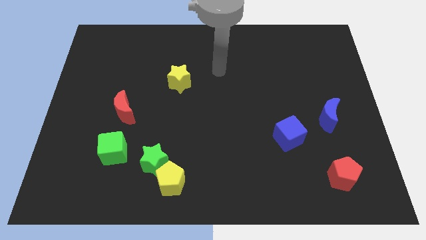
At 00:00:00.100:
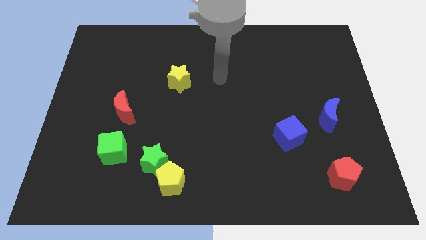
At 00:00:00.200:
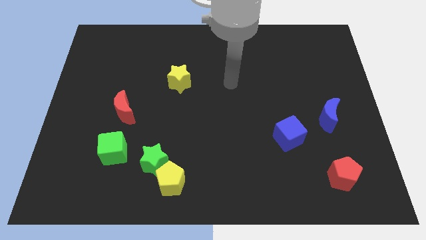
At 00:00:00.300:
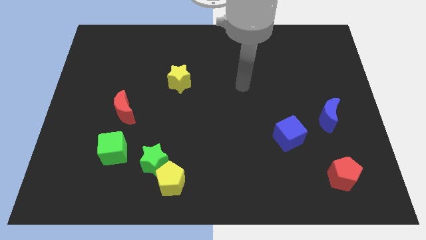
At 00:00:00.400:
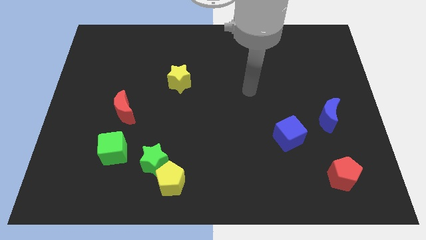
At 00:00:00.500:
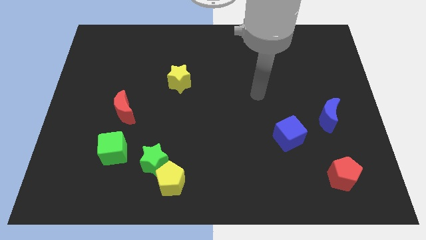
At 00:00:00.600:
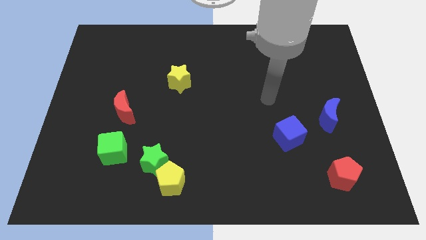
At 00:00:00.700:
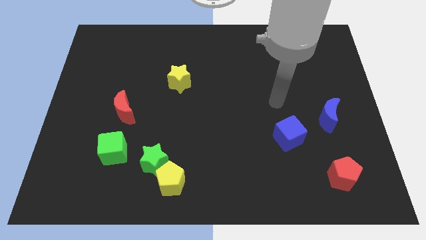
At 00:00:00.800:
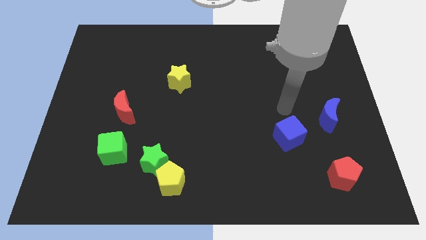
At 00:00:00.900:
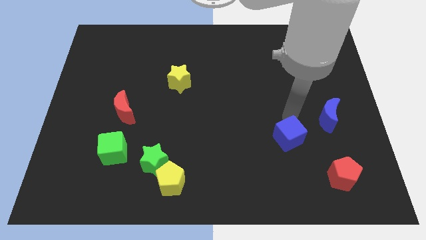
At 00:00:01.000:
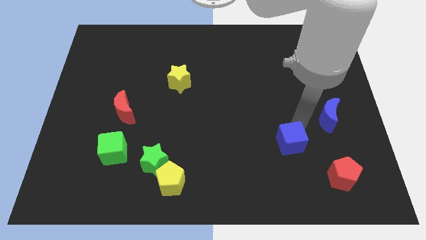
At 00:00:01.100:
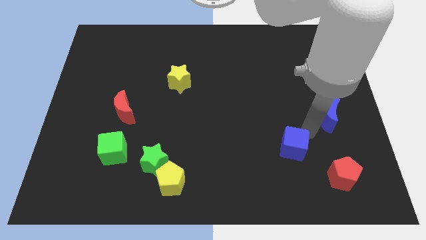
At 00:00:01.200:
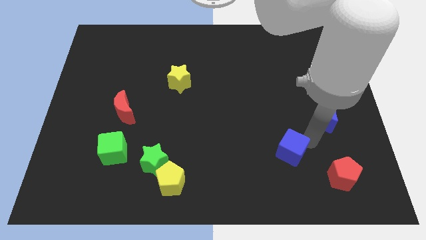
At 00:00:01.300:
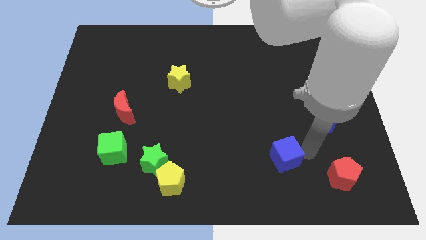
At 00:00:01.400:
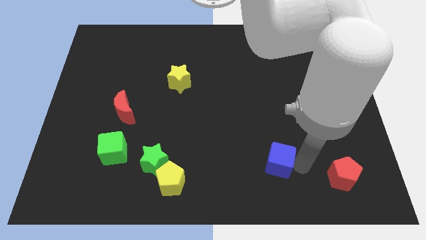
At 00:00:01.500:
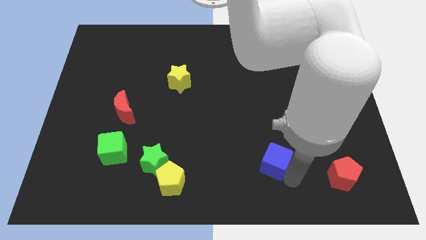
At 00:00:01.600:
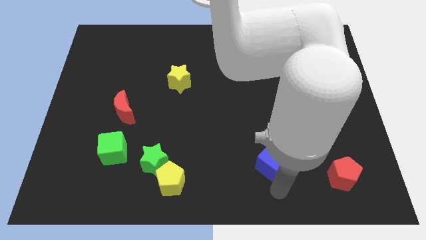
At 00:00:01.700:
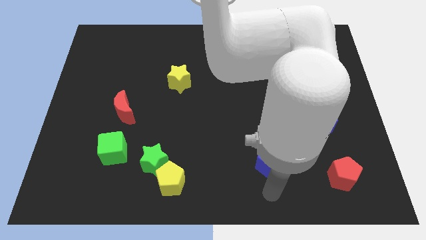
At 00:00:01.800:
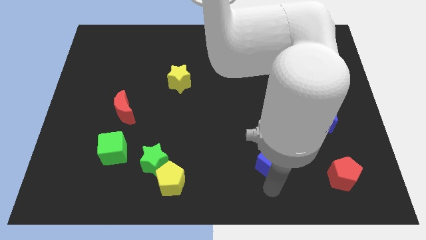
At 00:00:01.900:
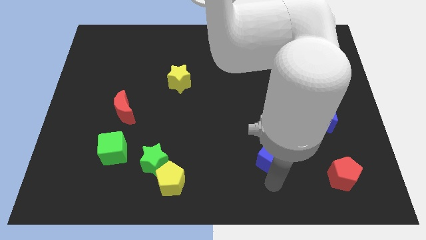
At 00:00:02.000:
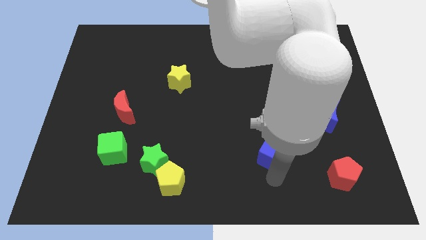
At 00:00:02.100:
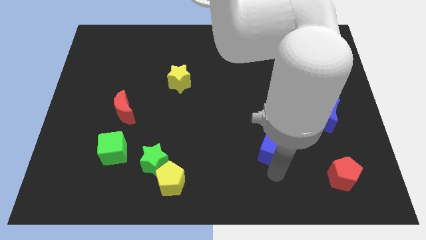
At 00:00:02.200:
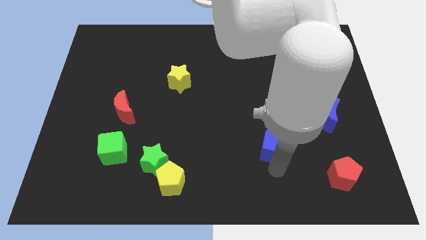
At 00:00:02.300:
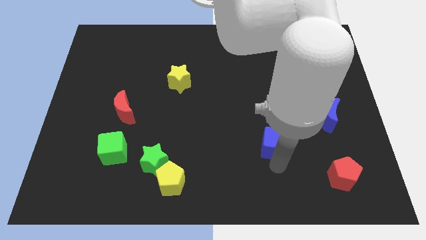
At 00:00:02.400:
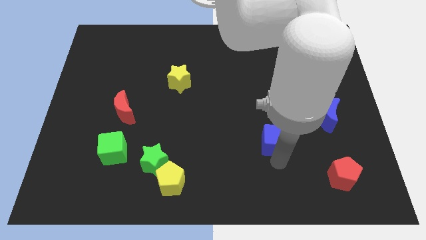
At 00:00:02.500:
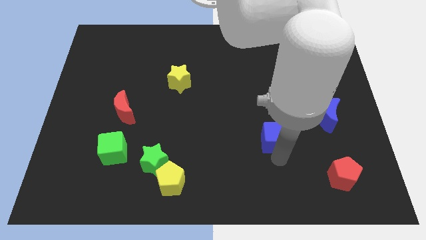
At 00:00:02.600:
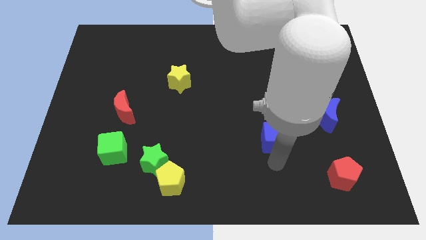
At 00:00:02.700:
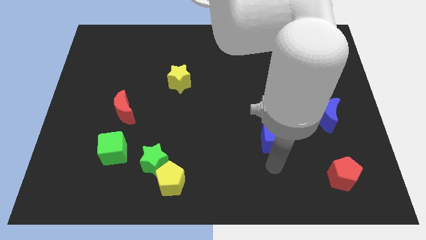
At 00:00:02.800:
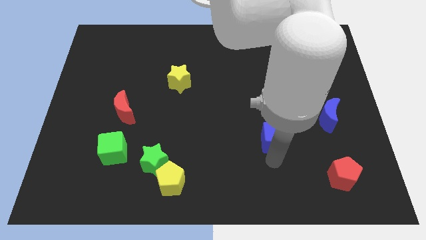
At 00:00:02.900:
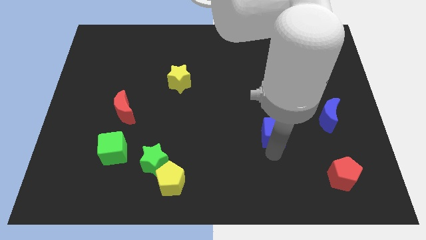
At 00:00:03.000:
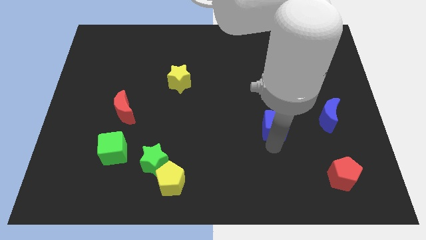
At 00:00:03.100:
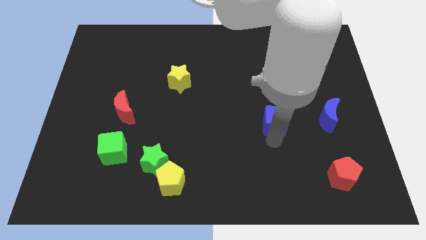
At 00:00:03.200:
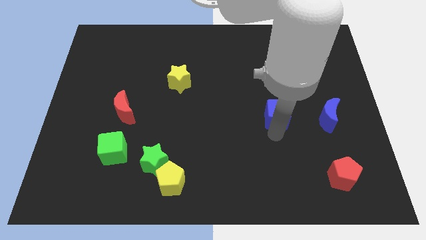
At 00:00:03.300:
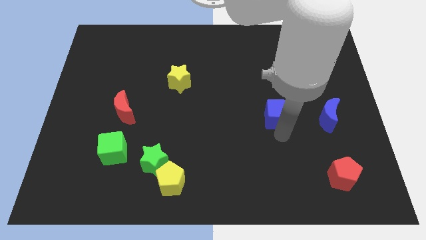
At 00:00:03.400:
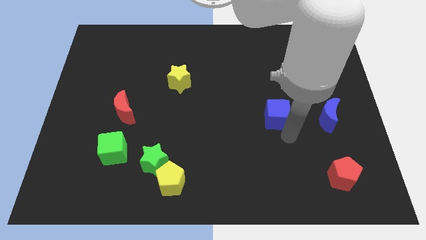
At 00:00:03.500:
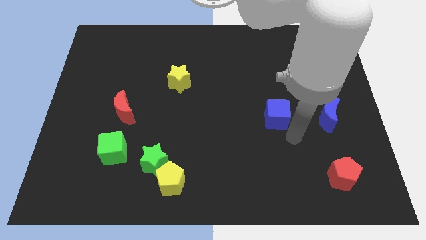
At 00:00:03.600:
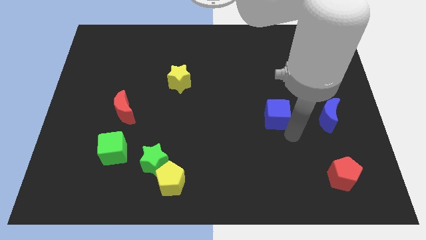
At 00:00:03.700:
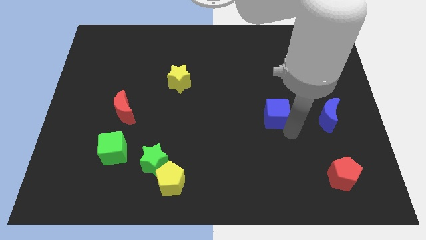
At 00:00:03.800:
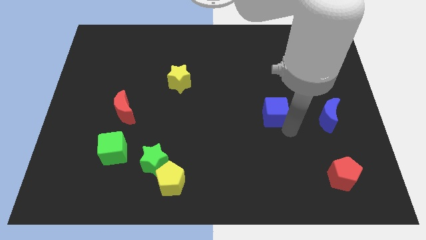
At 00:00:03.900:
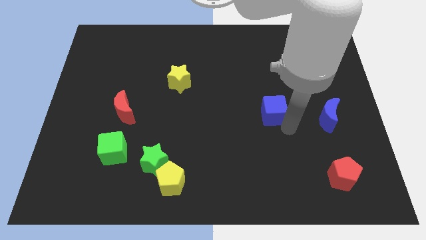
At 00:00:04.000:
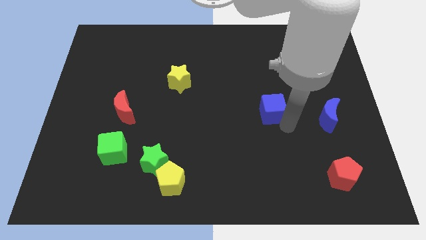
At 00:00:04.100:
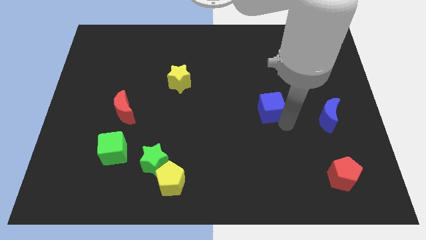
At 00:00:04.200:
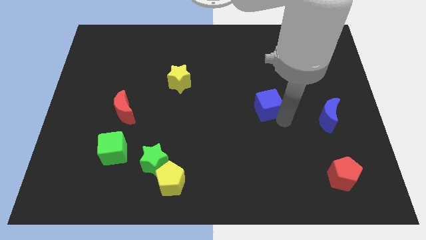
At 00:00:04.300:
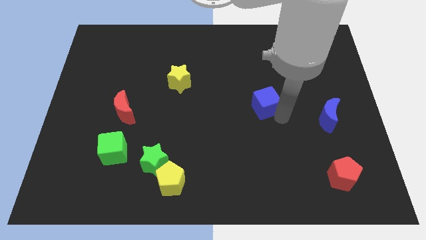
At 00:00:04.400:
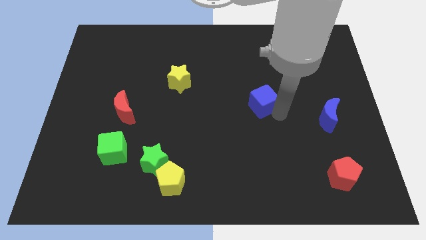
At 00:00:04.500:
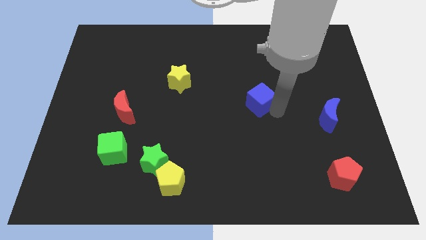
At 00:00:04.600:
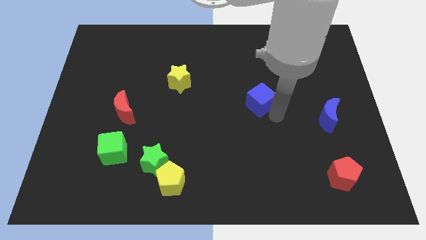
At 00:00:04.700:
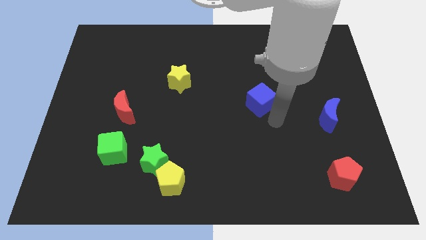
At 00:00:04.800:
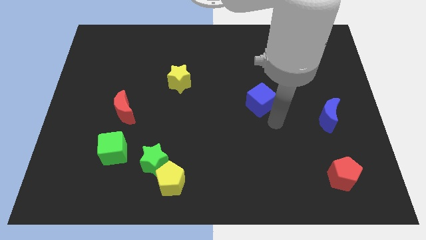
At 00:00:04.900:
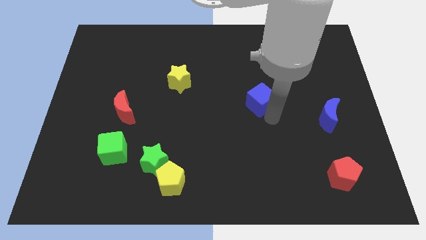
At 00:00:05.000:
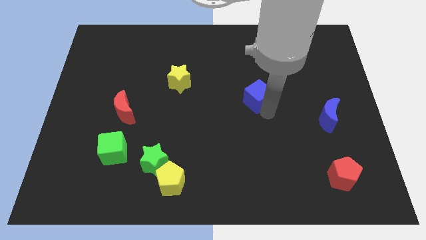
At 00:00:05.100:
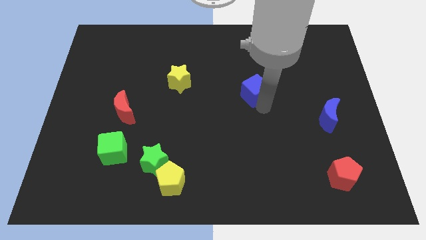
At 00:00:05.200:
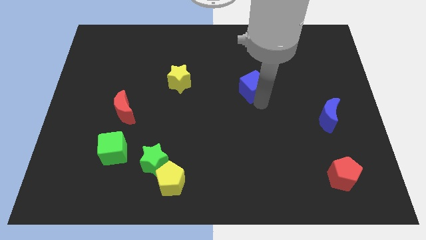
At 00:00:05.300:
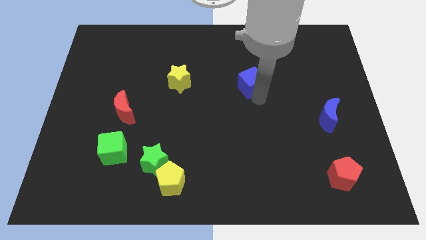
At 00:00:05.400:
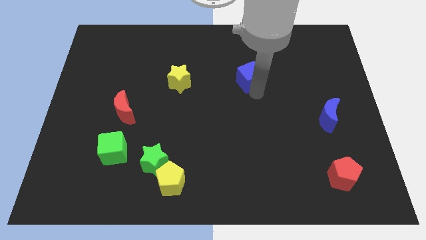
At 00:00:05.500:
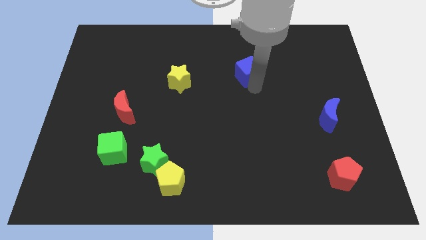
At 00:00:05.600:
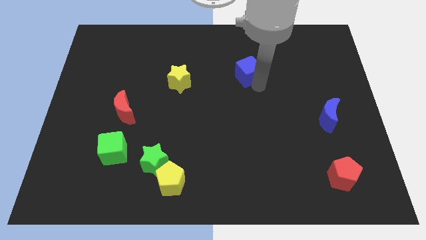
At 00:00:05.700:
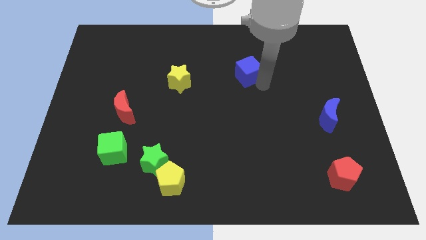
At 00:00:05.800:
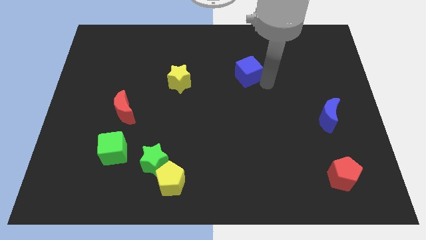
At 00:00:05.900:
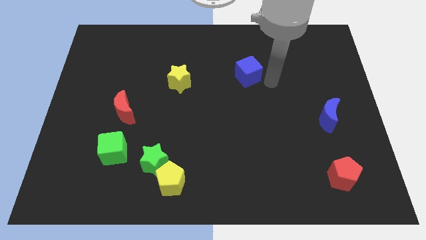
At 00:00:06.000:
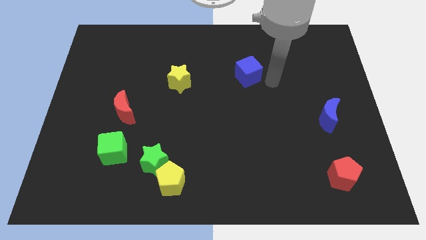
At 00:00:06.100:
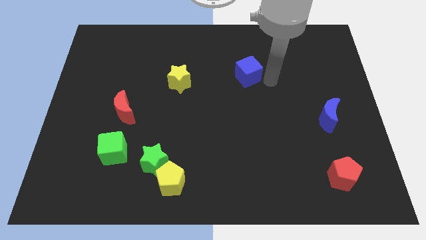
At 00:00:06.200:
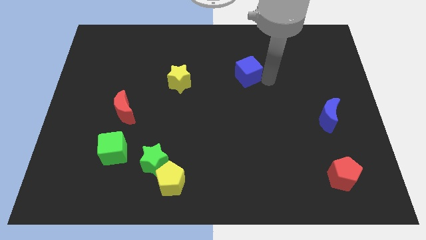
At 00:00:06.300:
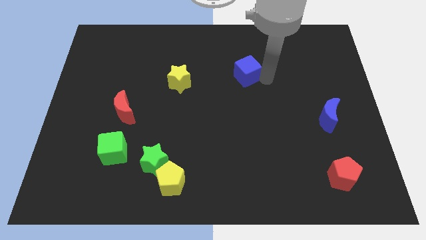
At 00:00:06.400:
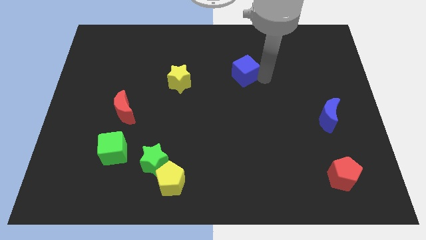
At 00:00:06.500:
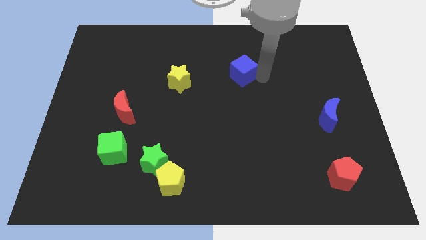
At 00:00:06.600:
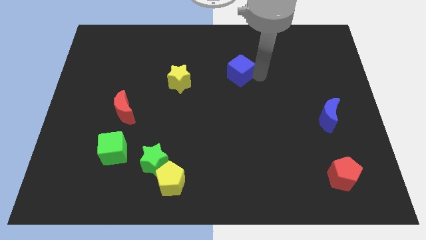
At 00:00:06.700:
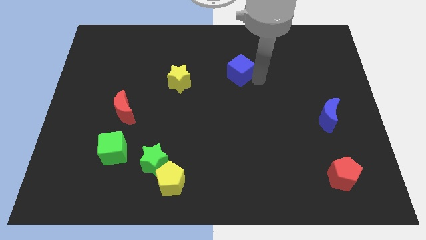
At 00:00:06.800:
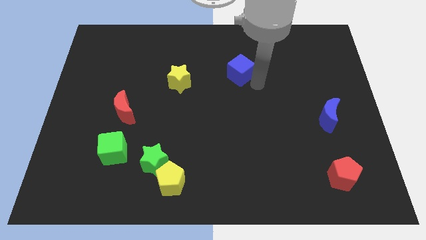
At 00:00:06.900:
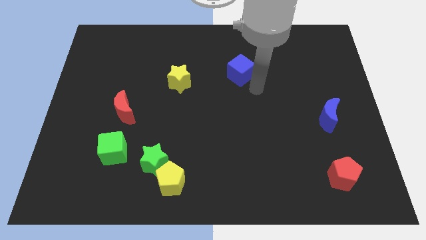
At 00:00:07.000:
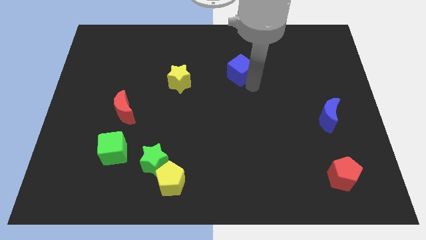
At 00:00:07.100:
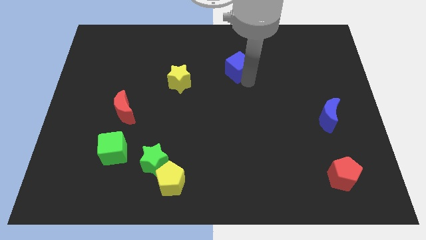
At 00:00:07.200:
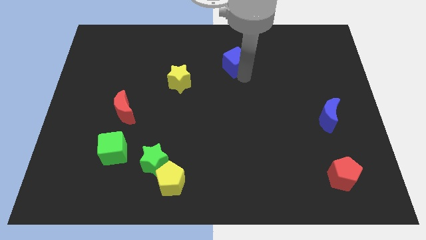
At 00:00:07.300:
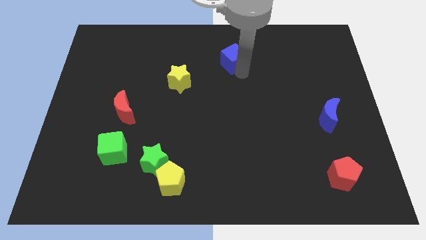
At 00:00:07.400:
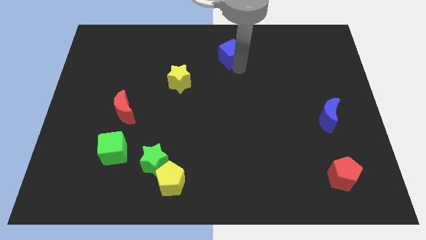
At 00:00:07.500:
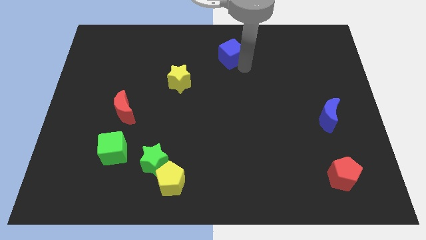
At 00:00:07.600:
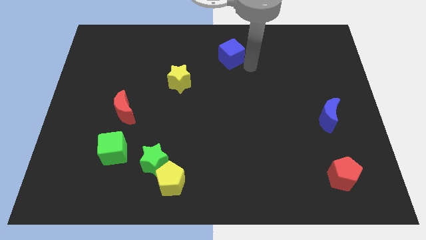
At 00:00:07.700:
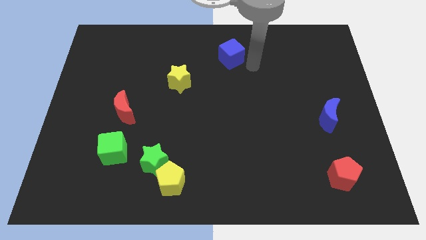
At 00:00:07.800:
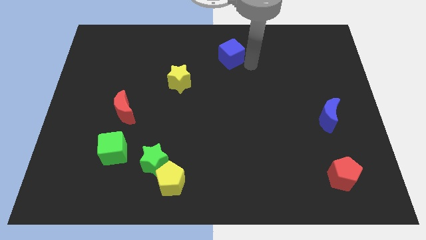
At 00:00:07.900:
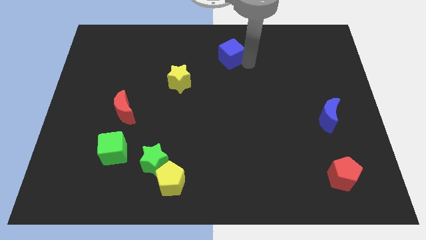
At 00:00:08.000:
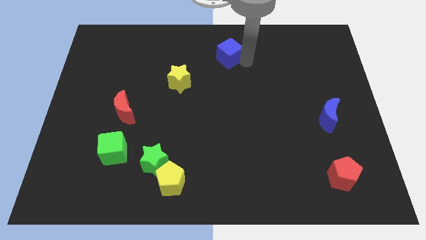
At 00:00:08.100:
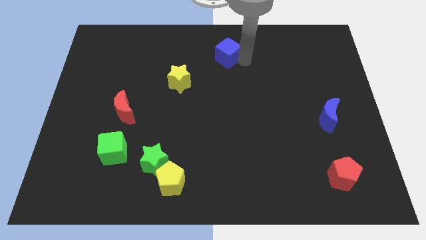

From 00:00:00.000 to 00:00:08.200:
put the blue cube to the top
